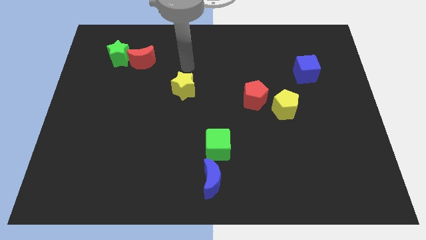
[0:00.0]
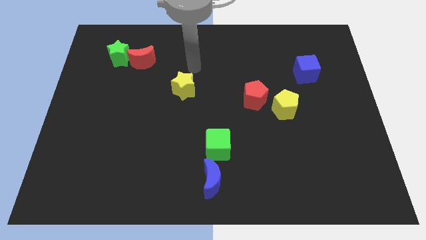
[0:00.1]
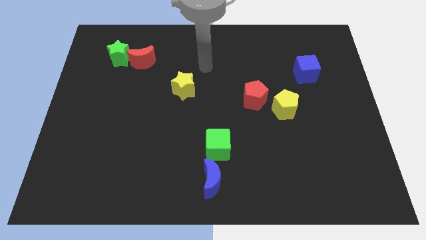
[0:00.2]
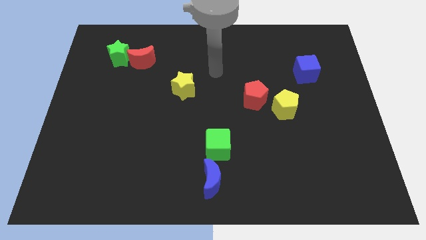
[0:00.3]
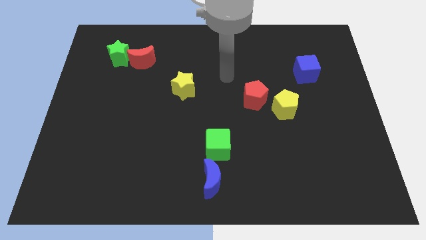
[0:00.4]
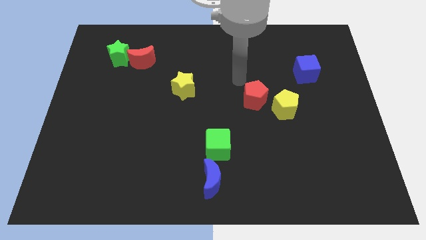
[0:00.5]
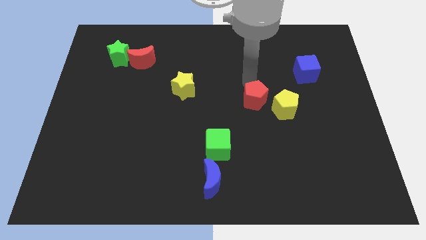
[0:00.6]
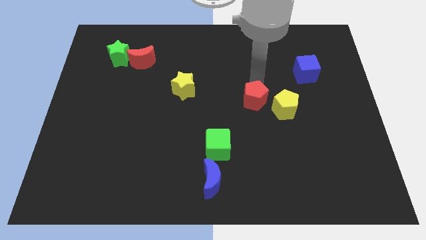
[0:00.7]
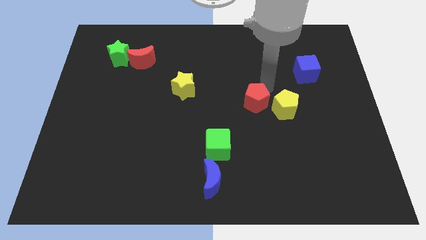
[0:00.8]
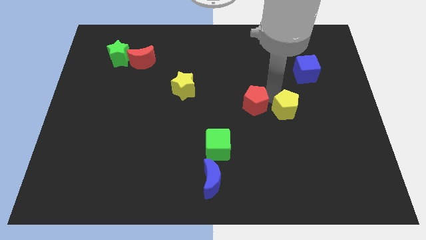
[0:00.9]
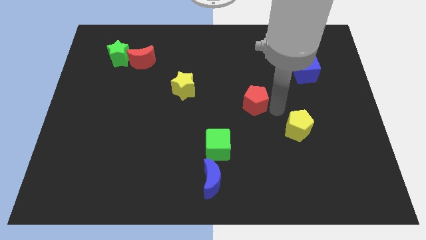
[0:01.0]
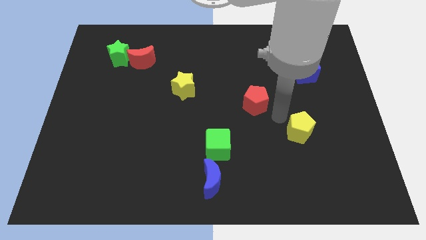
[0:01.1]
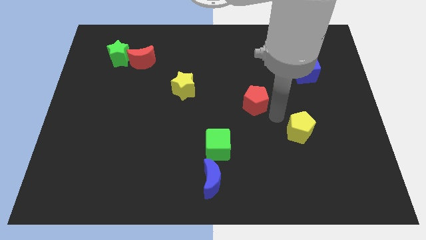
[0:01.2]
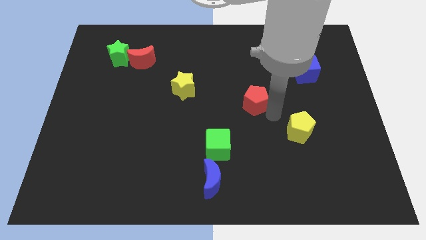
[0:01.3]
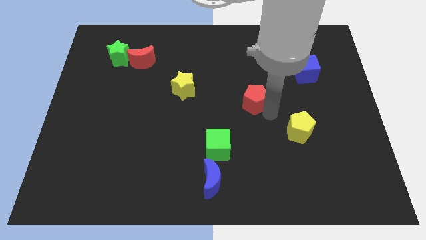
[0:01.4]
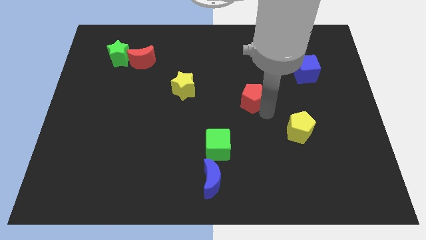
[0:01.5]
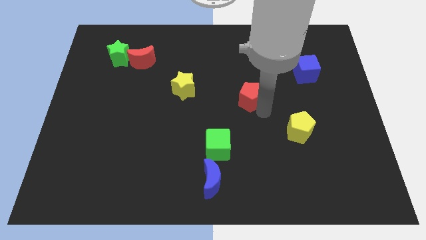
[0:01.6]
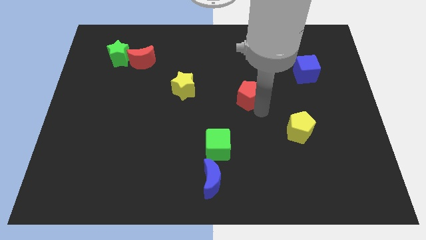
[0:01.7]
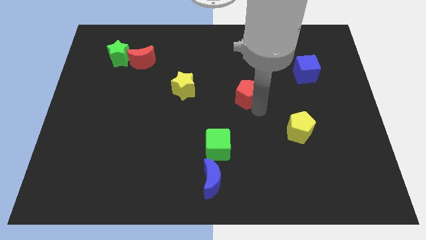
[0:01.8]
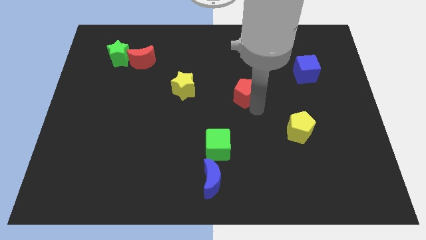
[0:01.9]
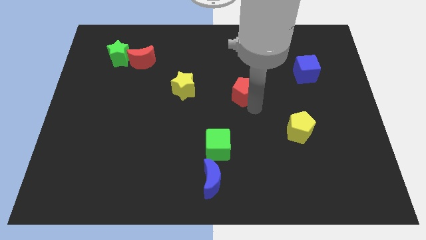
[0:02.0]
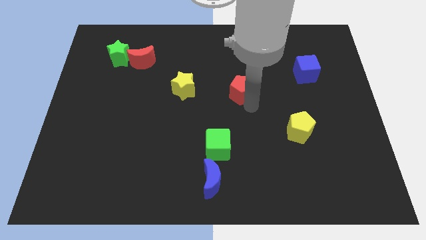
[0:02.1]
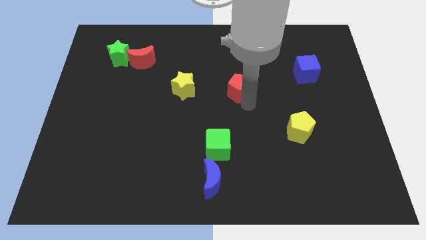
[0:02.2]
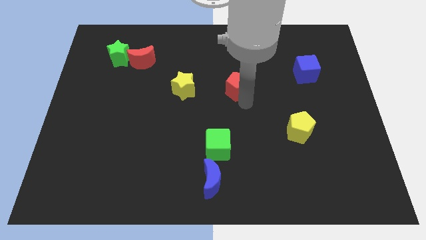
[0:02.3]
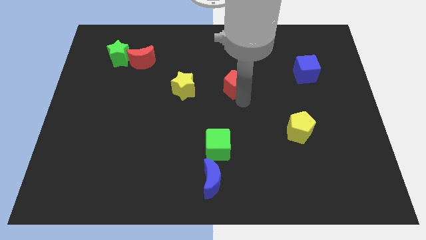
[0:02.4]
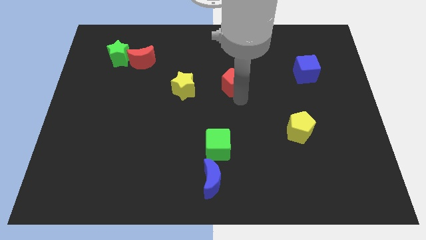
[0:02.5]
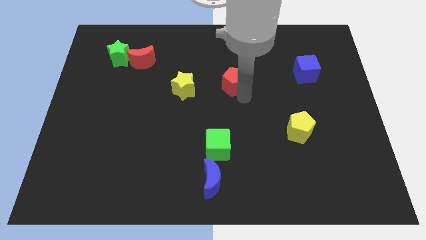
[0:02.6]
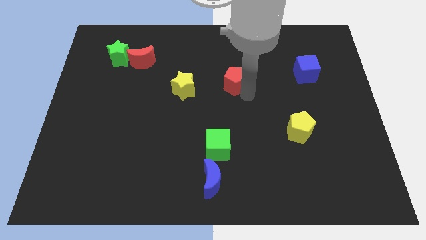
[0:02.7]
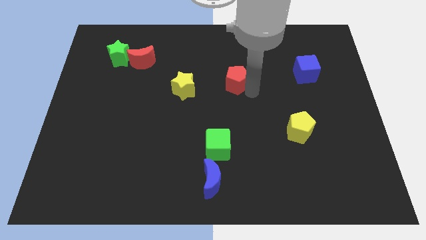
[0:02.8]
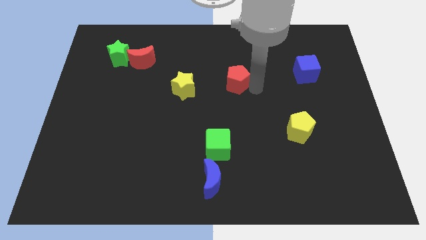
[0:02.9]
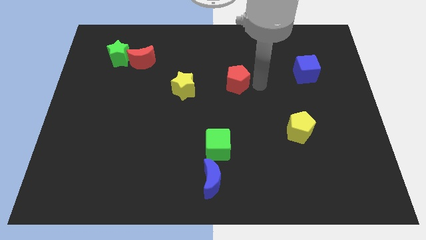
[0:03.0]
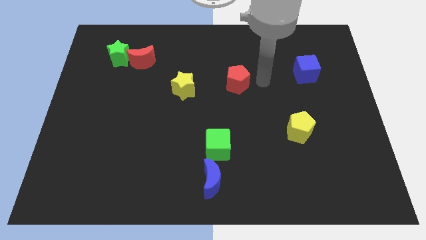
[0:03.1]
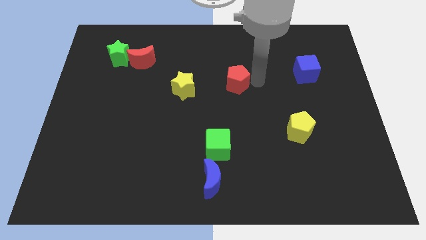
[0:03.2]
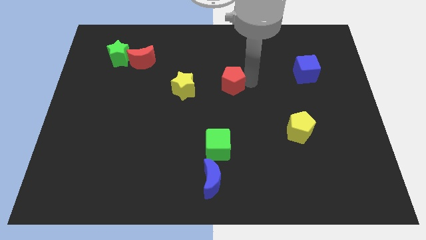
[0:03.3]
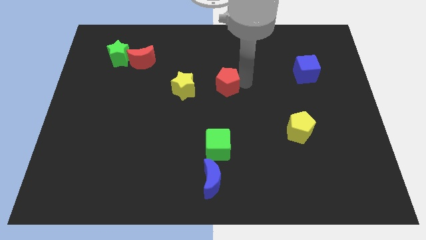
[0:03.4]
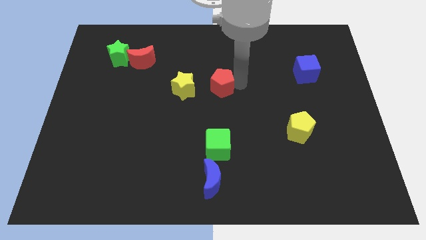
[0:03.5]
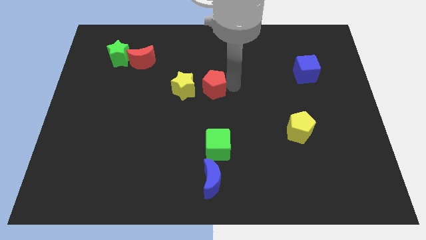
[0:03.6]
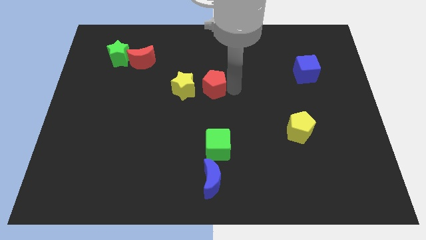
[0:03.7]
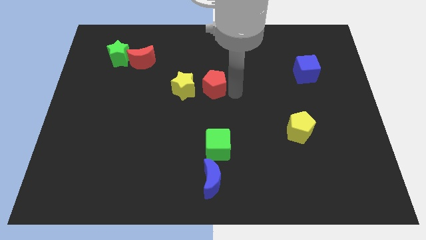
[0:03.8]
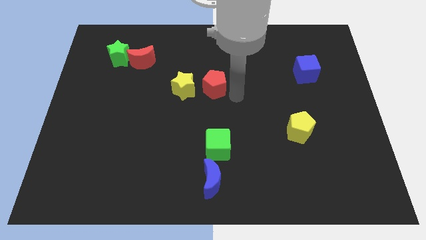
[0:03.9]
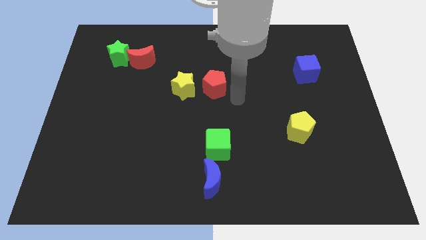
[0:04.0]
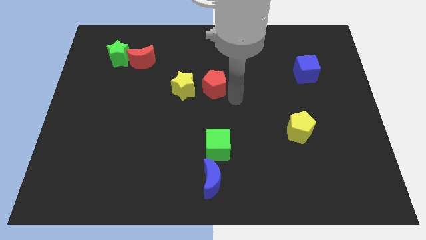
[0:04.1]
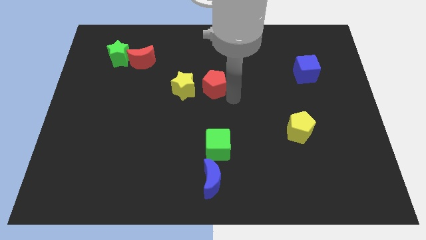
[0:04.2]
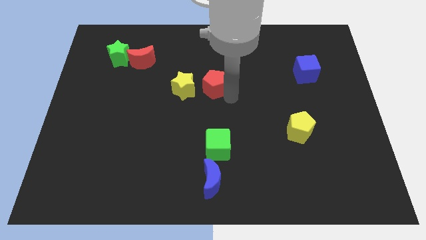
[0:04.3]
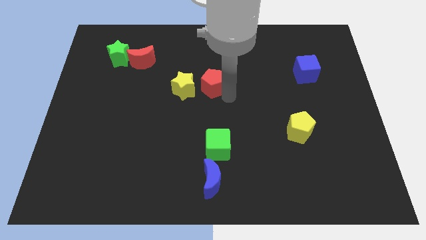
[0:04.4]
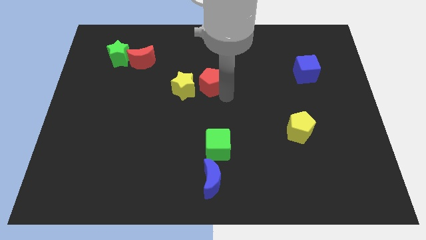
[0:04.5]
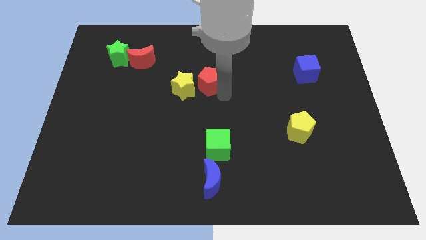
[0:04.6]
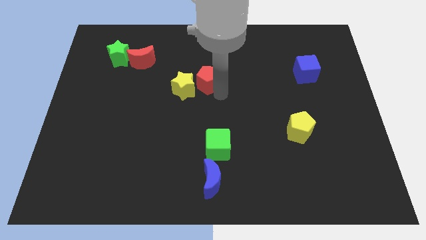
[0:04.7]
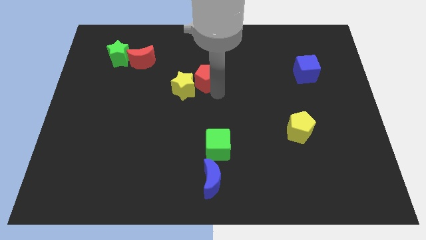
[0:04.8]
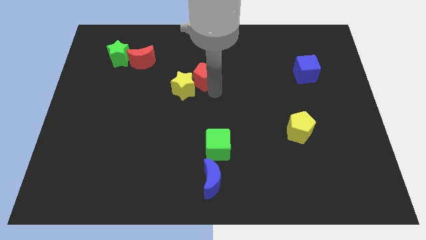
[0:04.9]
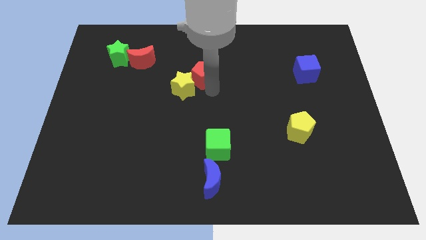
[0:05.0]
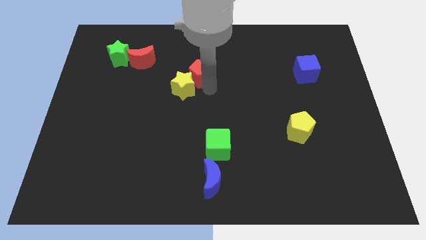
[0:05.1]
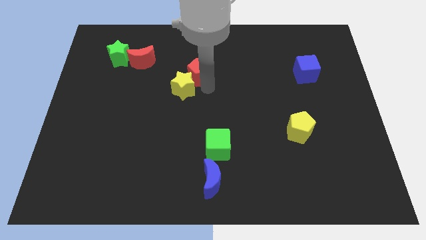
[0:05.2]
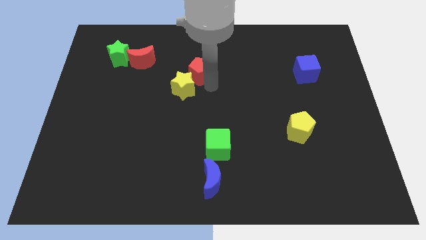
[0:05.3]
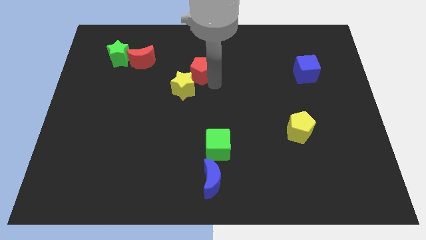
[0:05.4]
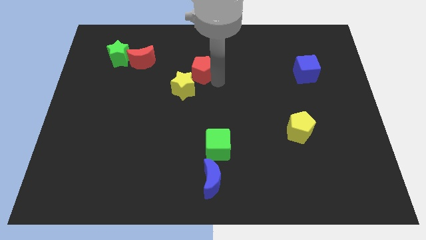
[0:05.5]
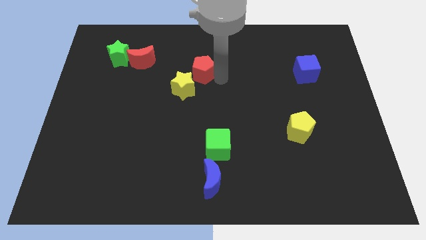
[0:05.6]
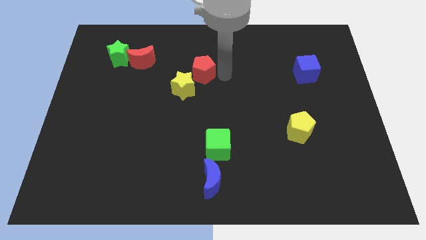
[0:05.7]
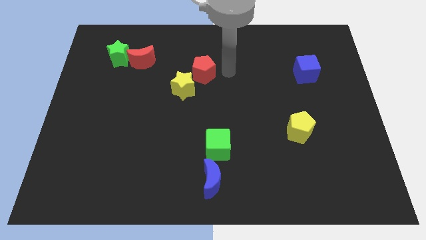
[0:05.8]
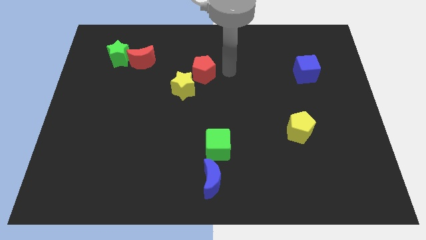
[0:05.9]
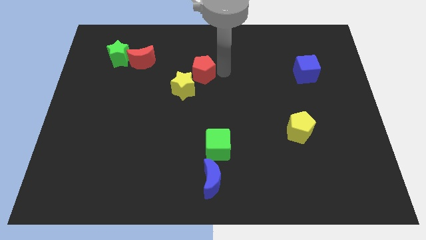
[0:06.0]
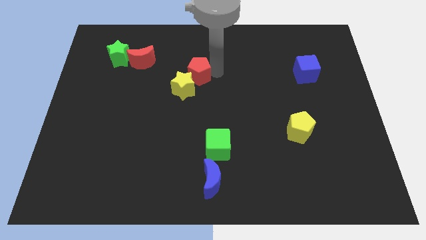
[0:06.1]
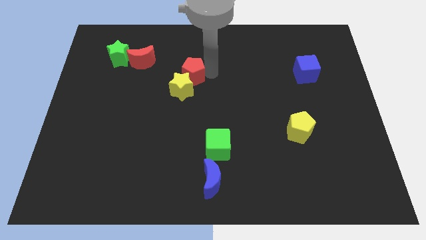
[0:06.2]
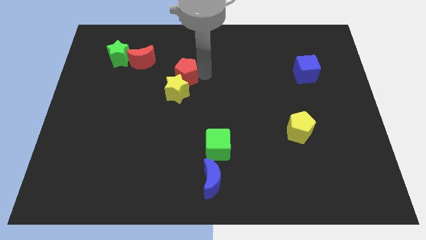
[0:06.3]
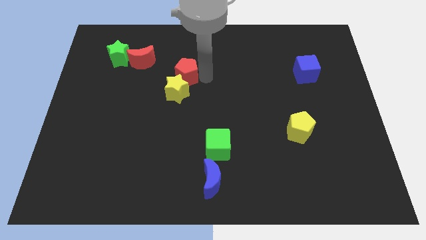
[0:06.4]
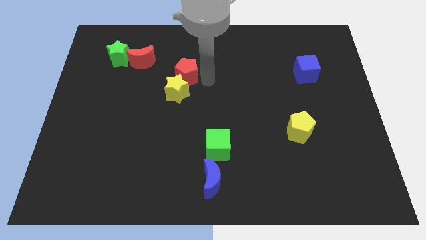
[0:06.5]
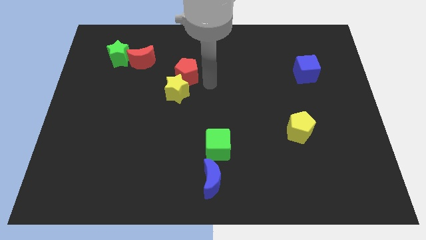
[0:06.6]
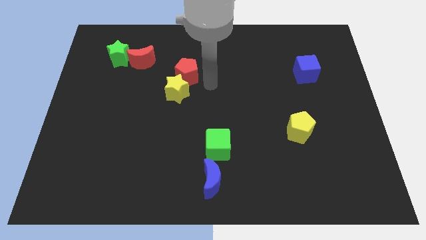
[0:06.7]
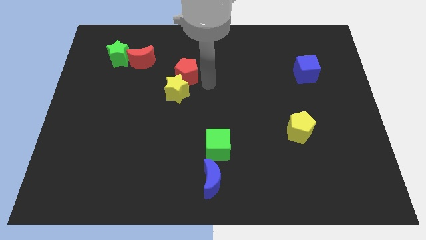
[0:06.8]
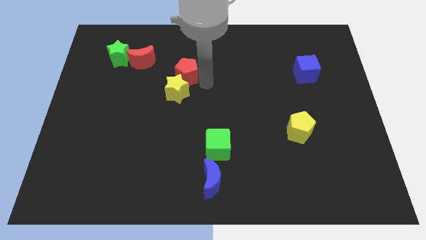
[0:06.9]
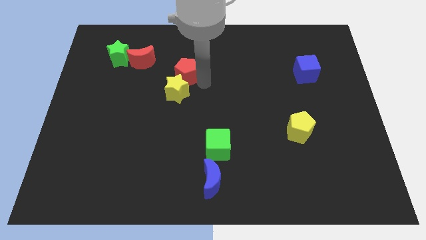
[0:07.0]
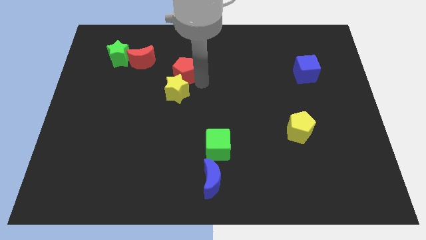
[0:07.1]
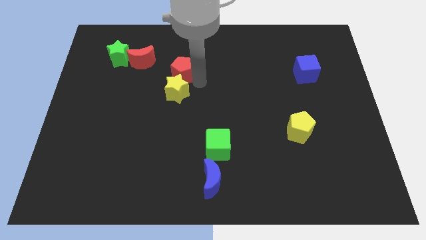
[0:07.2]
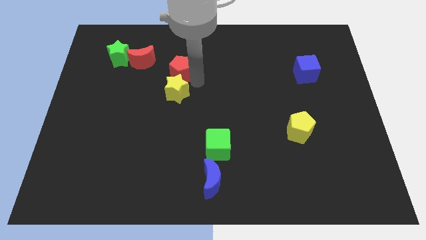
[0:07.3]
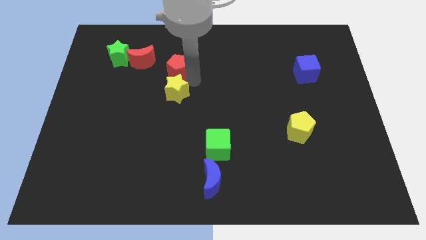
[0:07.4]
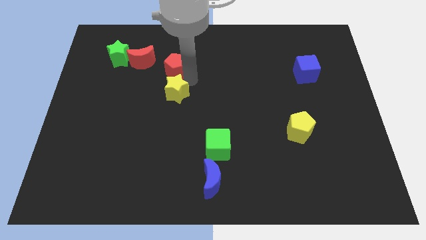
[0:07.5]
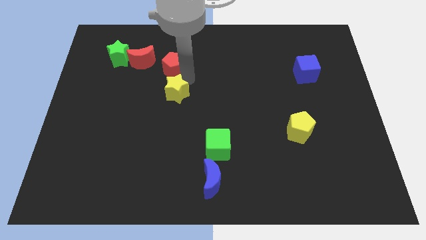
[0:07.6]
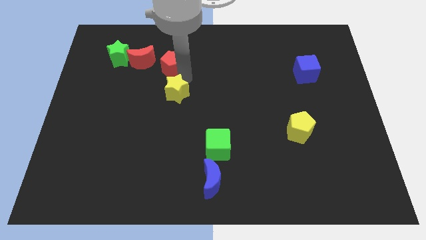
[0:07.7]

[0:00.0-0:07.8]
slide the red pentagon to the right of the green star
